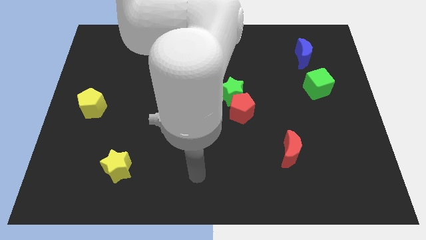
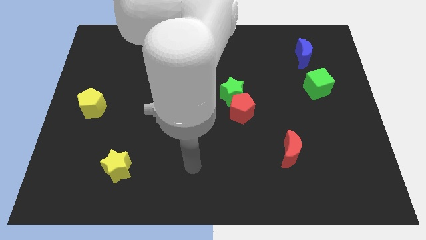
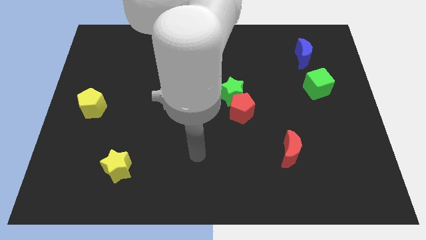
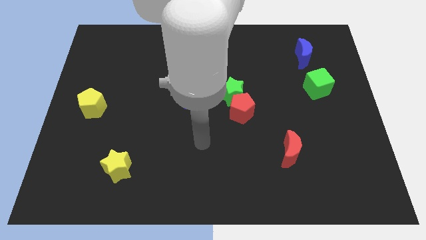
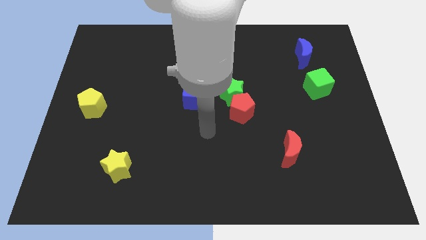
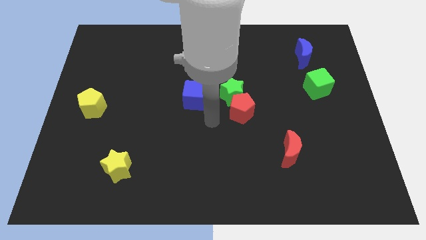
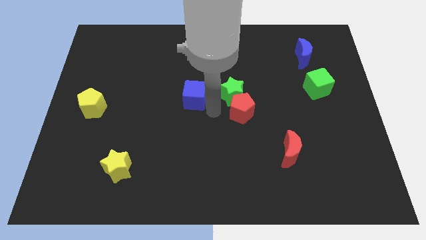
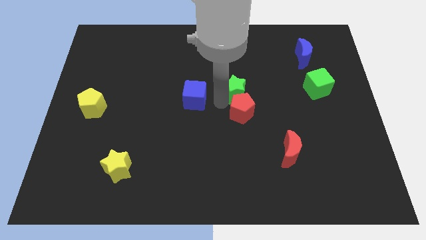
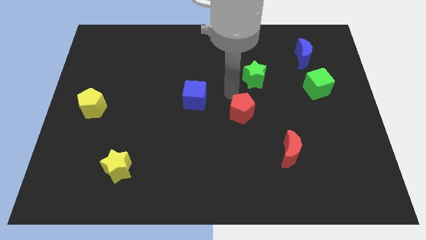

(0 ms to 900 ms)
separate the red pentagon from the green star

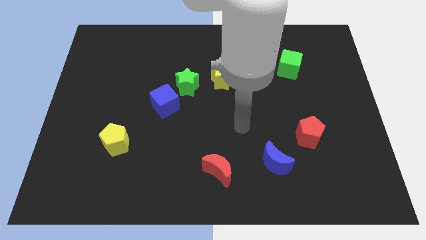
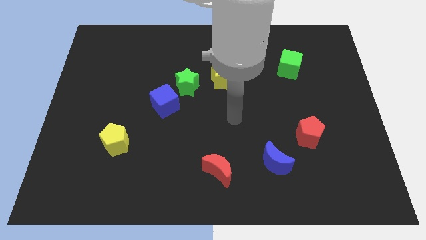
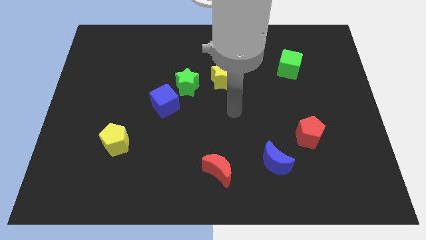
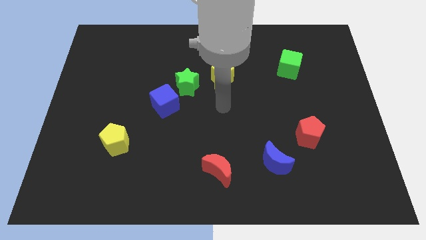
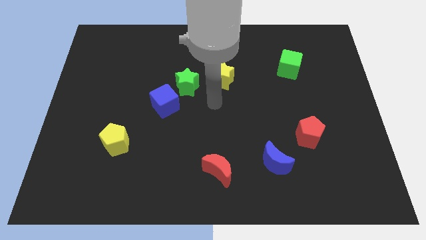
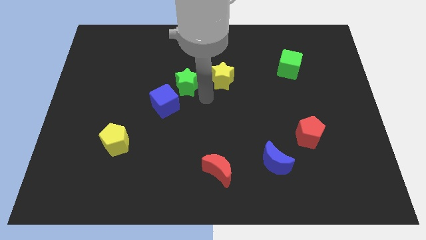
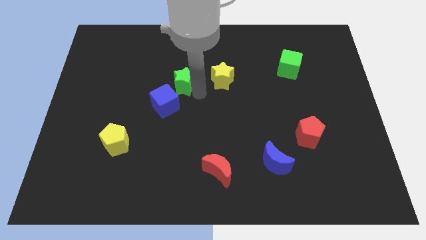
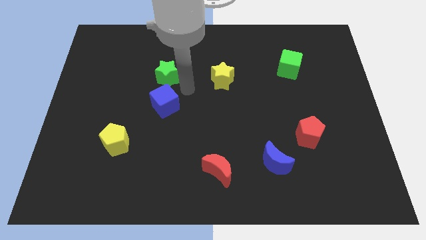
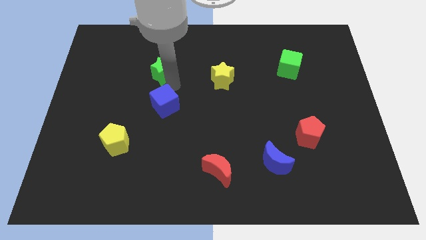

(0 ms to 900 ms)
move the blue cube away from the green star

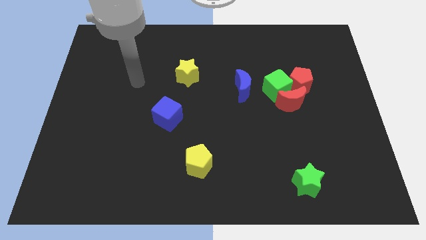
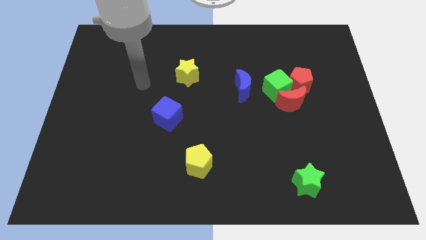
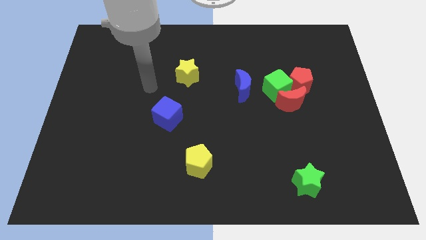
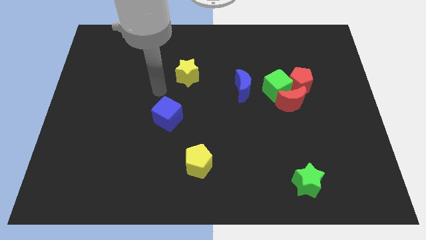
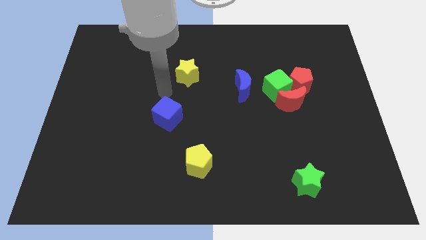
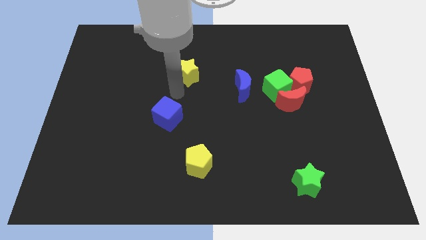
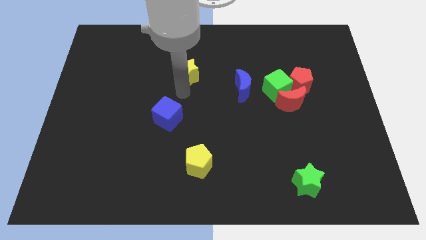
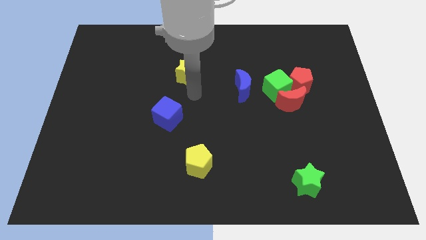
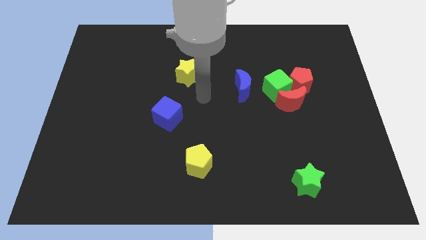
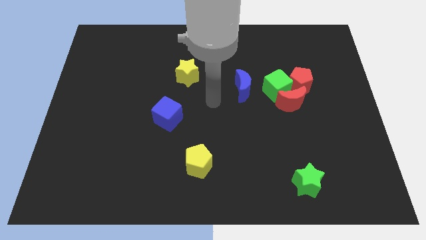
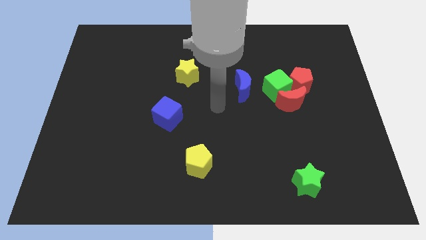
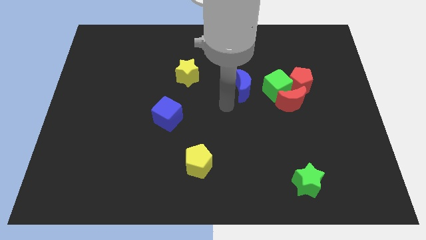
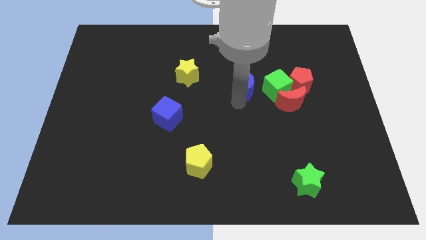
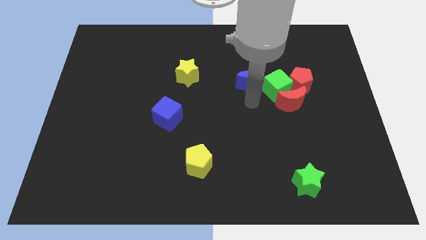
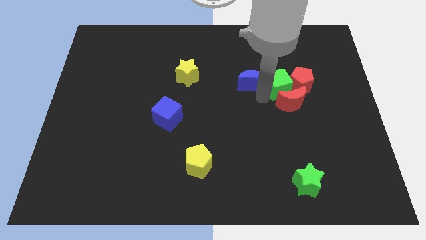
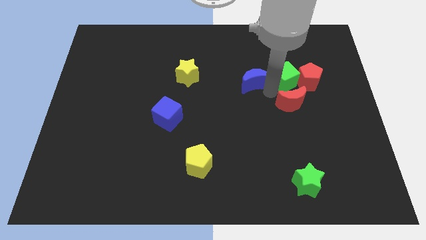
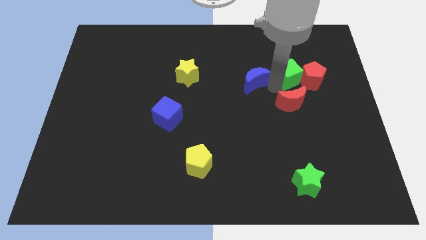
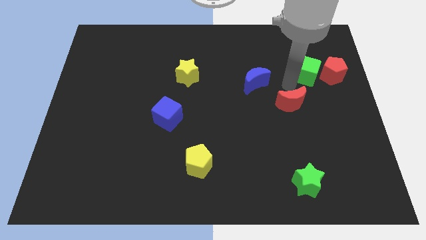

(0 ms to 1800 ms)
move the red moon away from the green cube and red pentagon

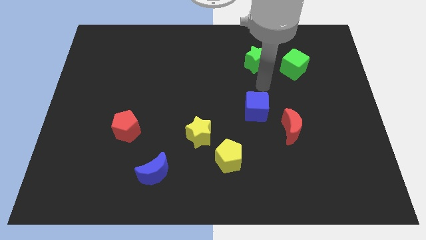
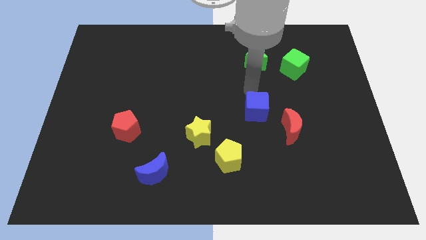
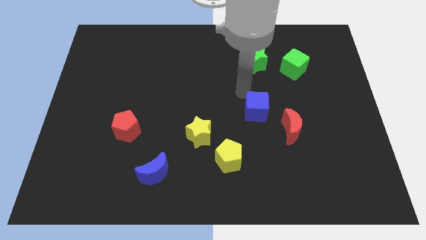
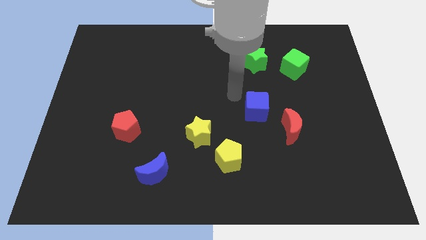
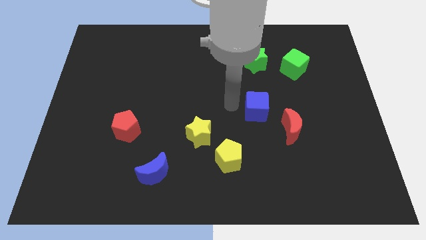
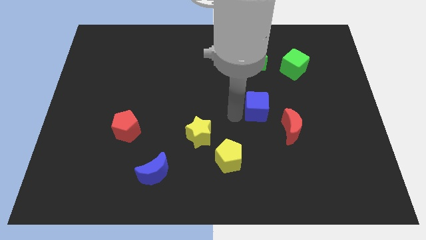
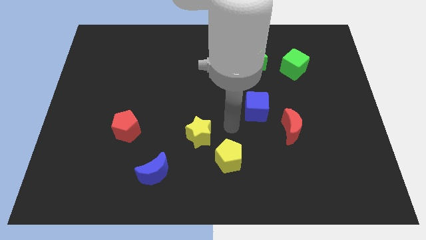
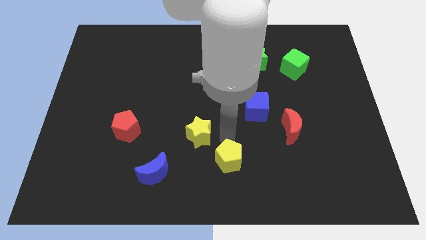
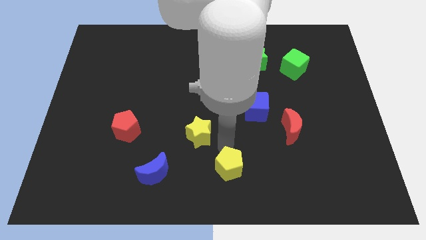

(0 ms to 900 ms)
separate the yellow star from the yellow pentagon

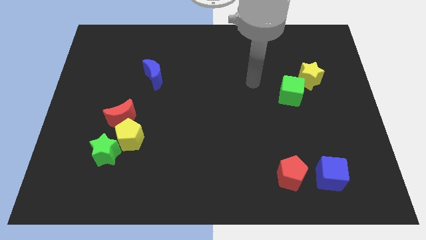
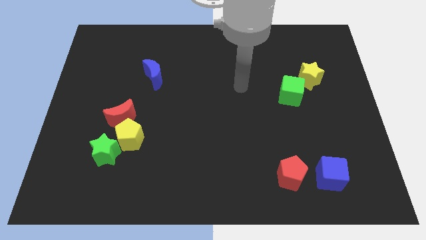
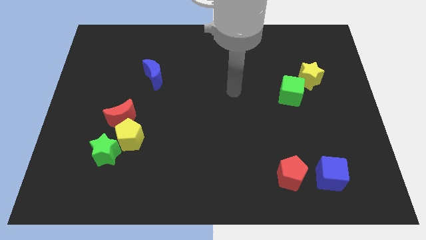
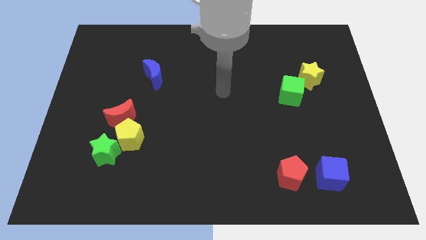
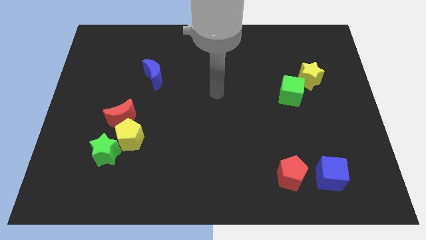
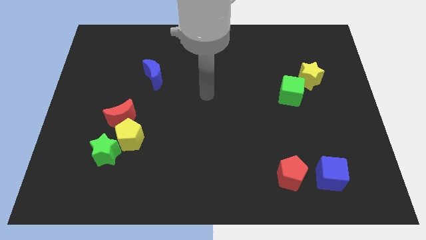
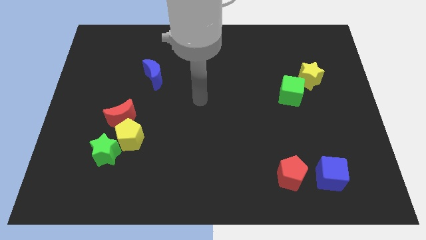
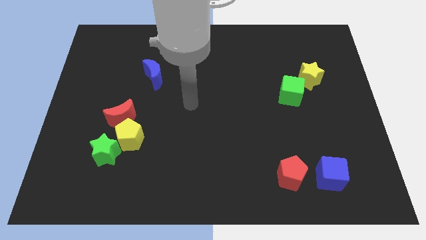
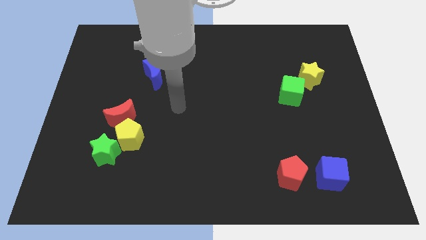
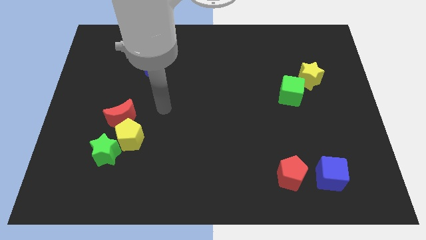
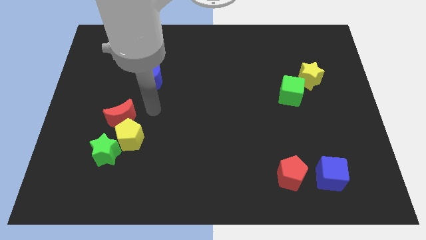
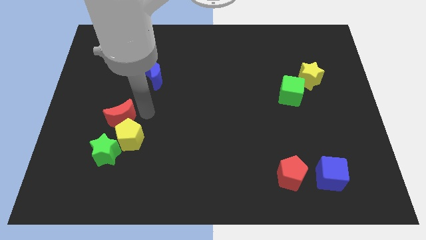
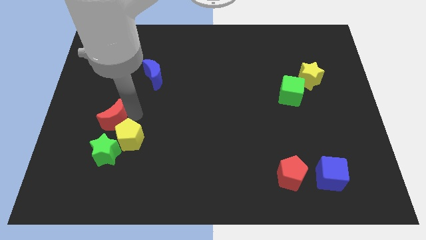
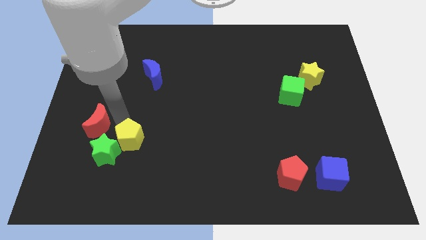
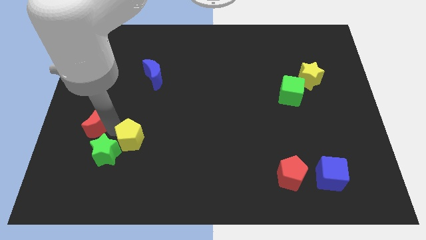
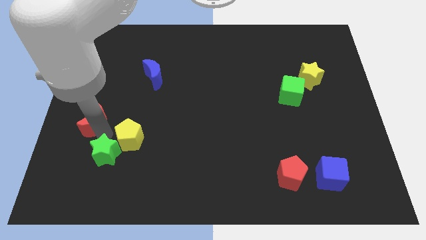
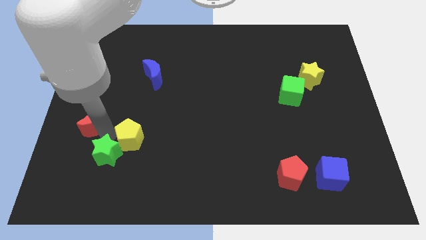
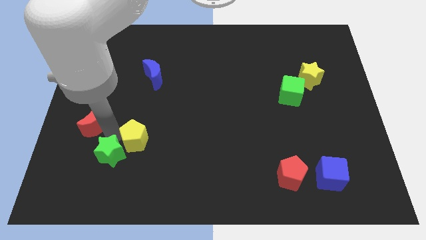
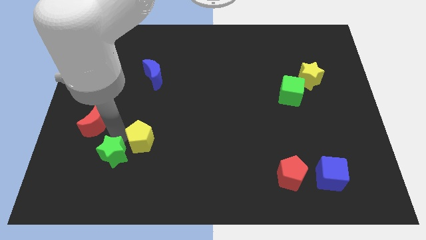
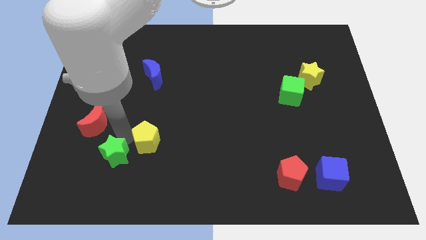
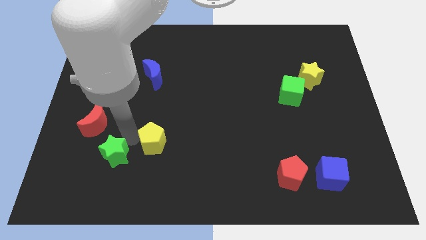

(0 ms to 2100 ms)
separate the yellow pentagon from the red moon and green star

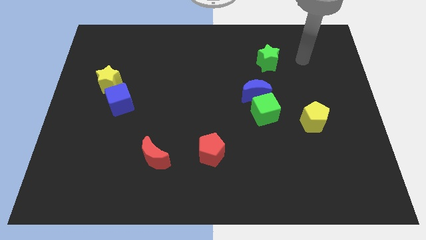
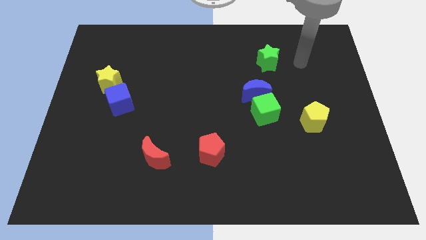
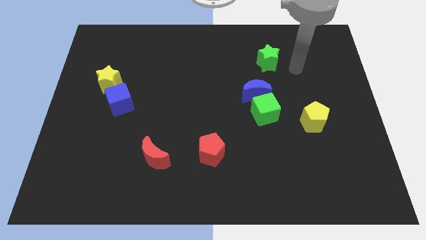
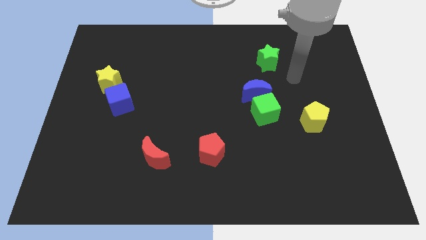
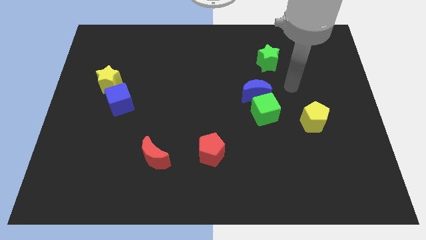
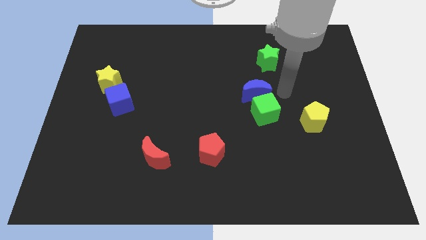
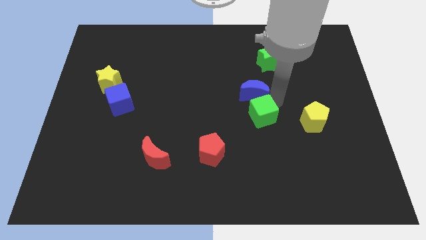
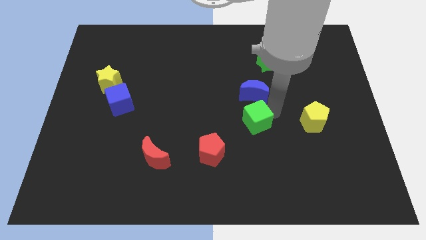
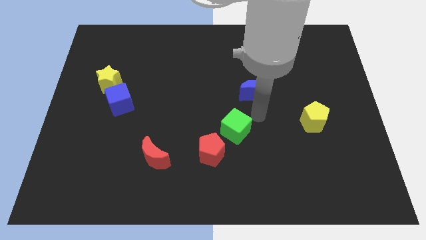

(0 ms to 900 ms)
pull the blue moon apart from the green cube

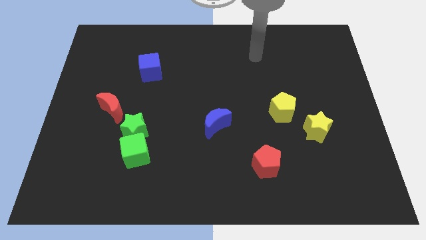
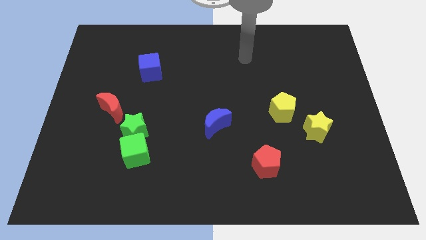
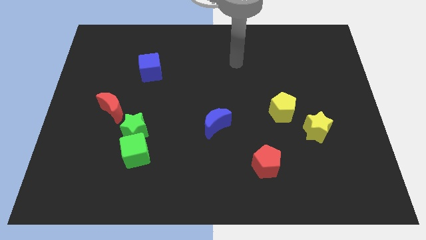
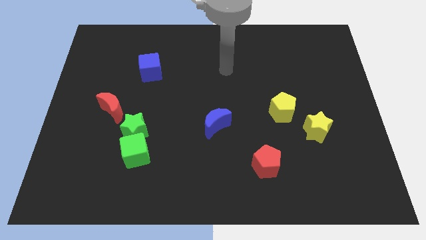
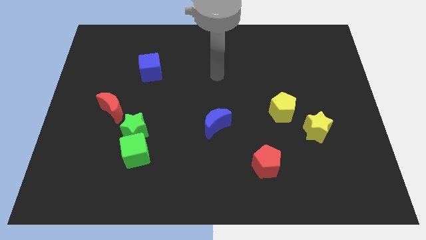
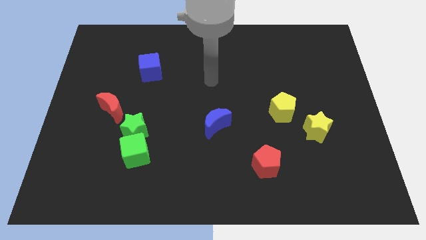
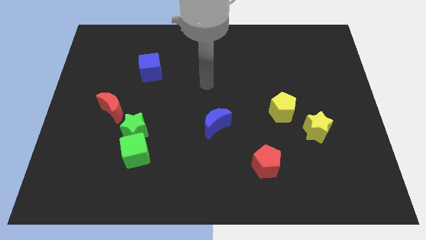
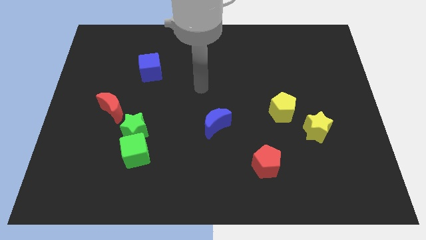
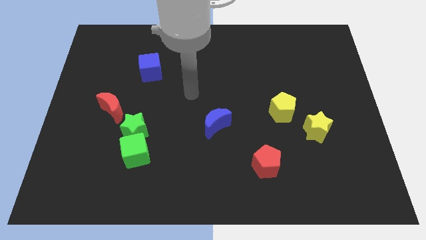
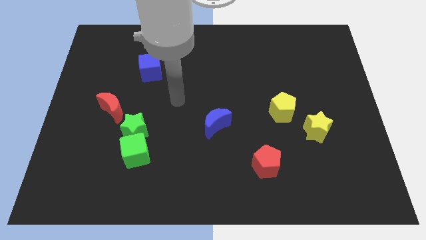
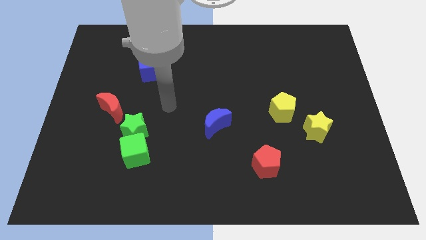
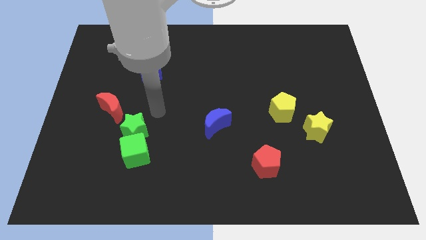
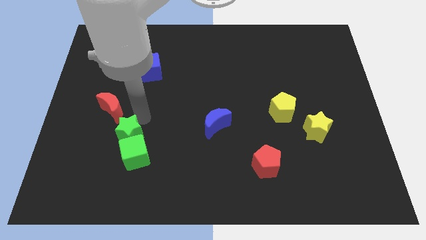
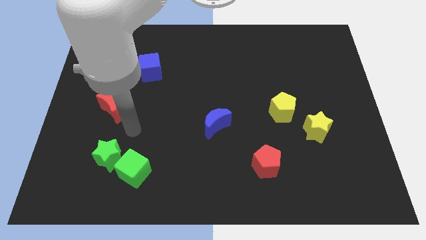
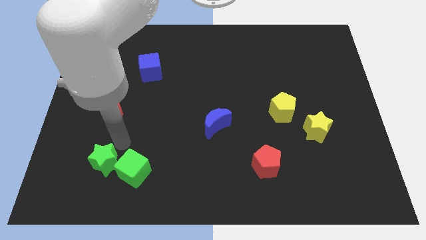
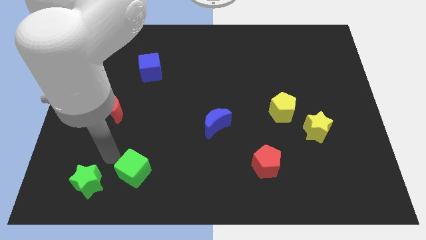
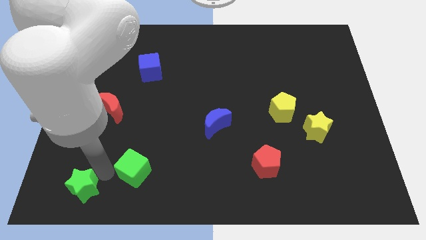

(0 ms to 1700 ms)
pull the green cube apart from the green star

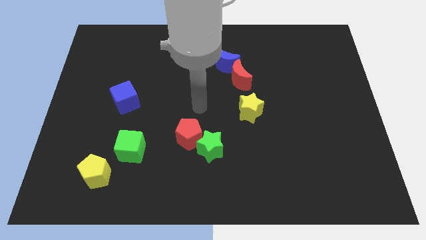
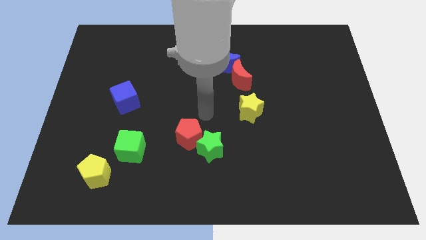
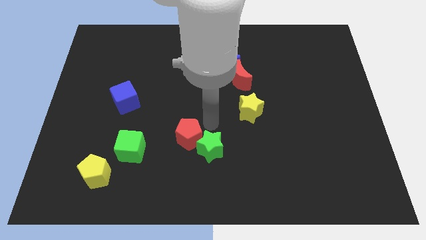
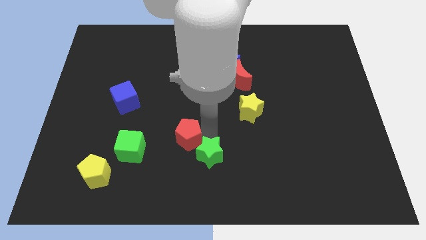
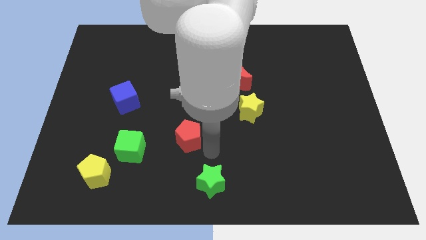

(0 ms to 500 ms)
move the red pentagon away from the green star
